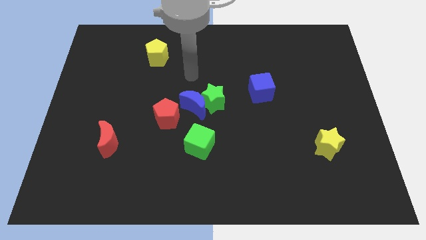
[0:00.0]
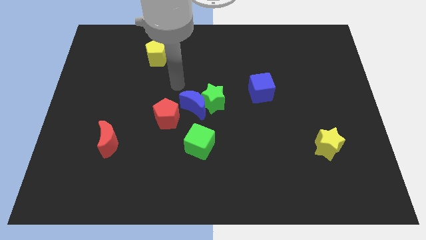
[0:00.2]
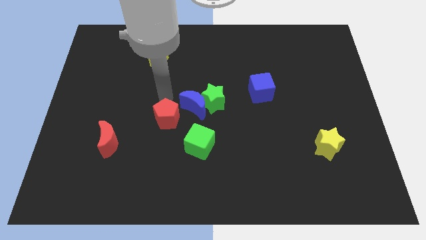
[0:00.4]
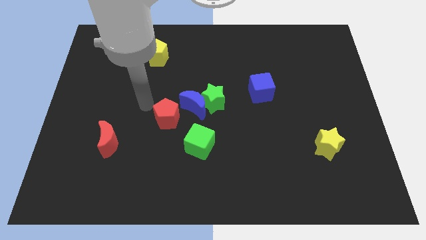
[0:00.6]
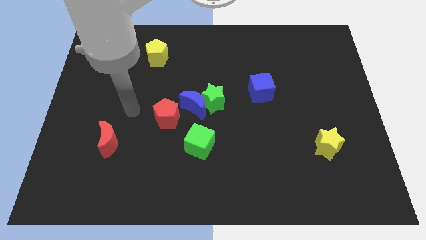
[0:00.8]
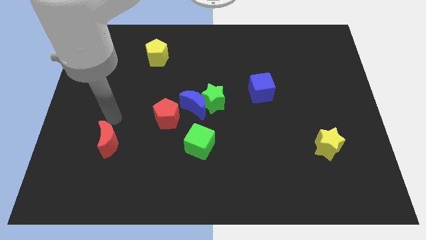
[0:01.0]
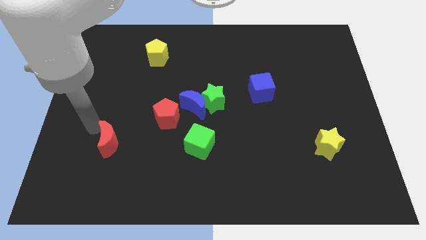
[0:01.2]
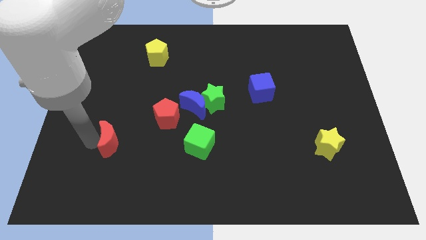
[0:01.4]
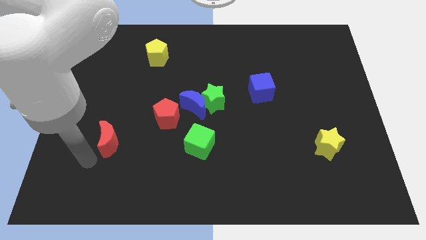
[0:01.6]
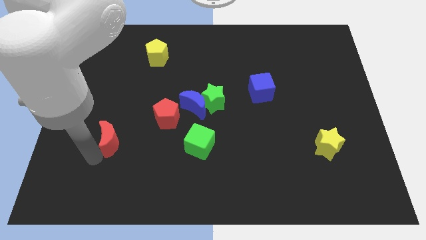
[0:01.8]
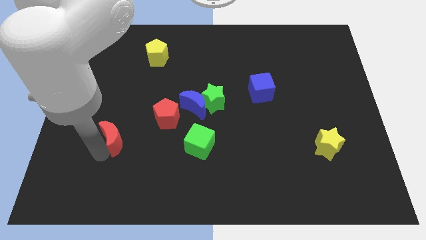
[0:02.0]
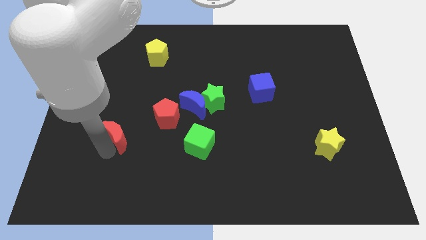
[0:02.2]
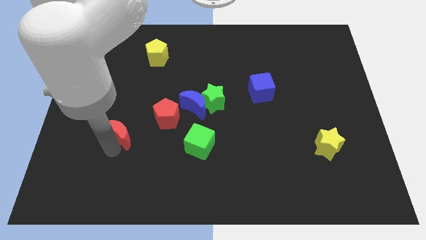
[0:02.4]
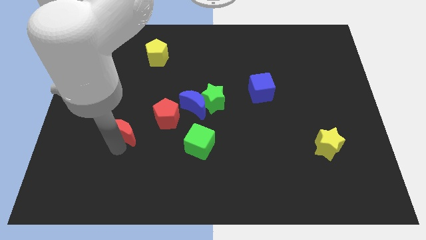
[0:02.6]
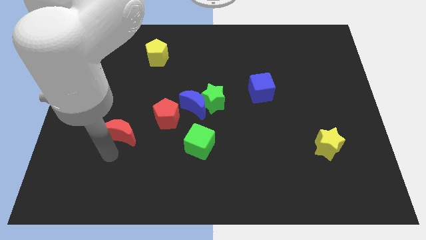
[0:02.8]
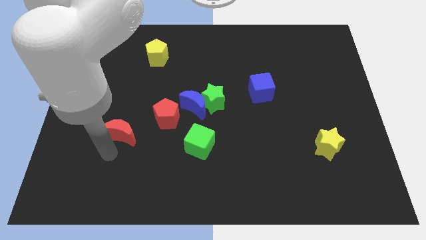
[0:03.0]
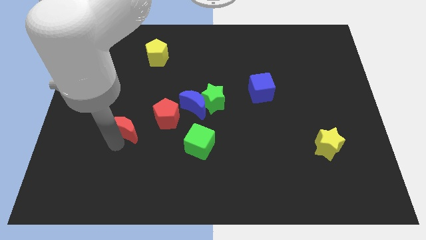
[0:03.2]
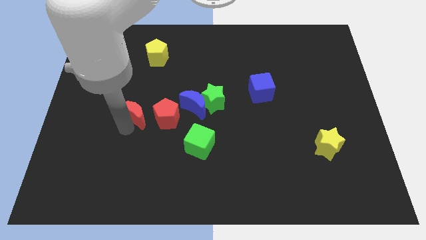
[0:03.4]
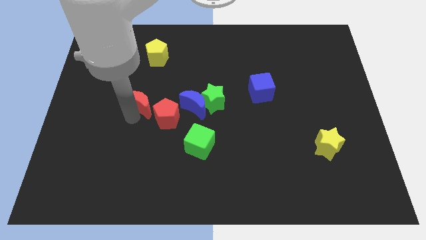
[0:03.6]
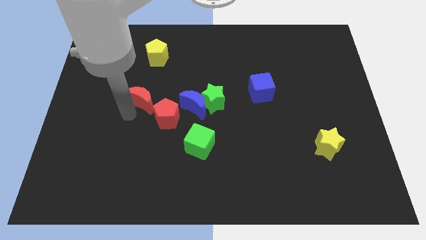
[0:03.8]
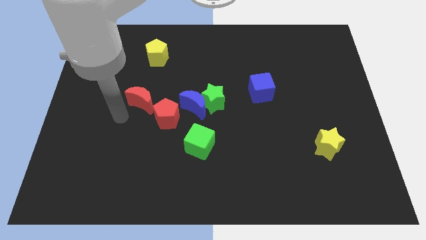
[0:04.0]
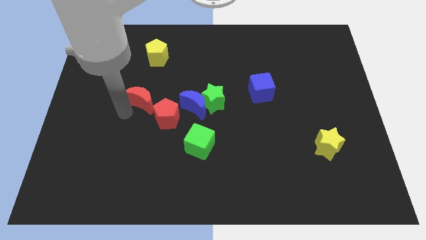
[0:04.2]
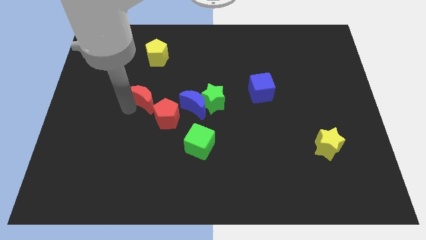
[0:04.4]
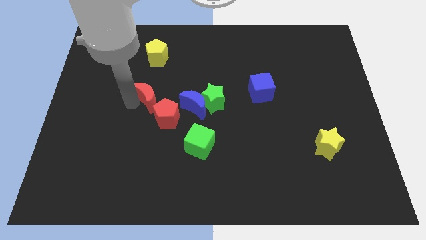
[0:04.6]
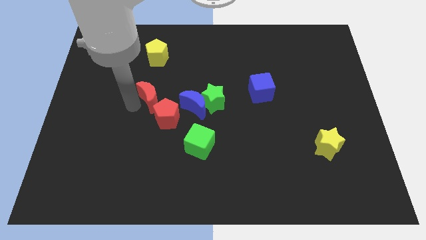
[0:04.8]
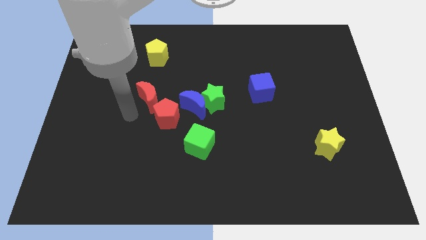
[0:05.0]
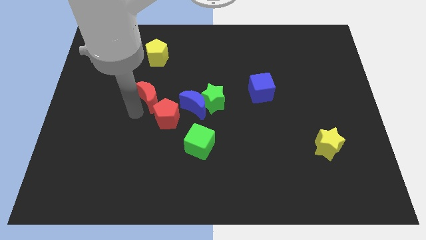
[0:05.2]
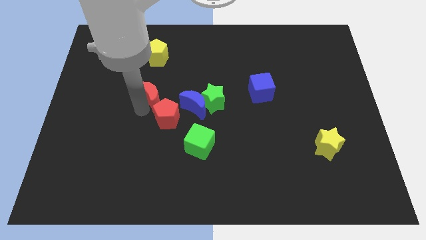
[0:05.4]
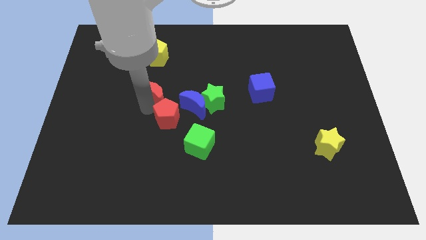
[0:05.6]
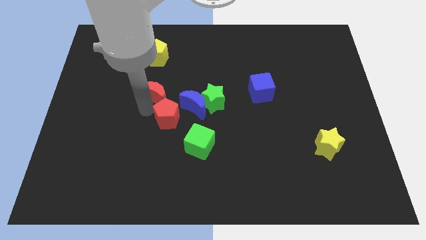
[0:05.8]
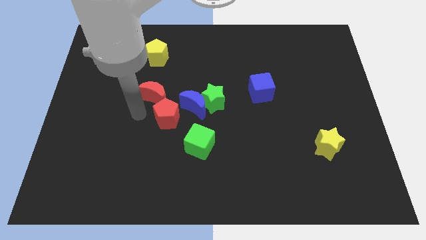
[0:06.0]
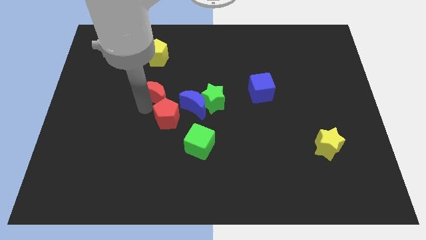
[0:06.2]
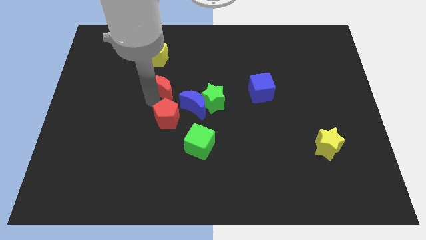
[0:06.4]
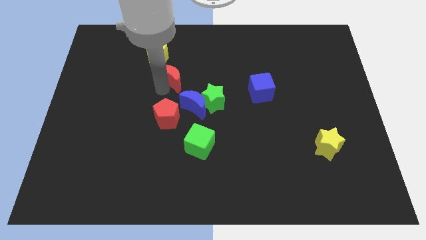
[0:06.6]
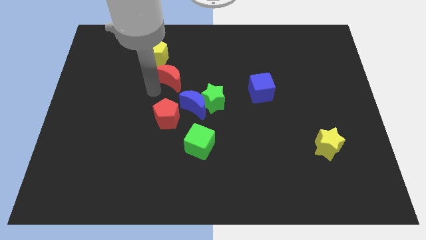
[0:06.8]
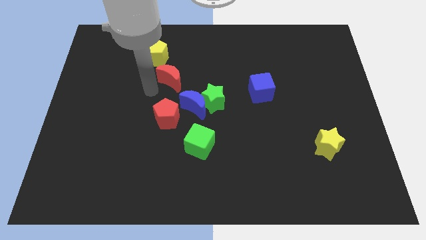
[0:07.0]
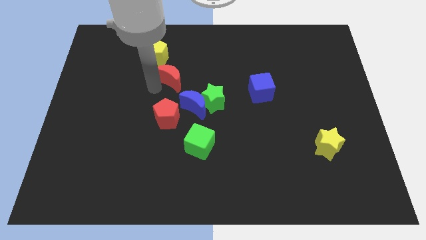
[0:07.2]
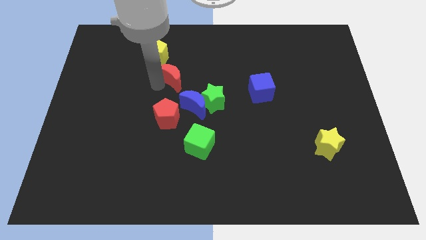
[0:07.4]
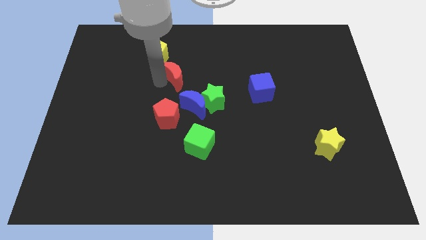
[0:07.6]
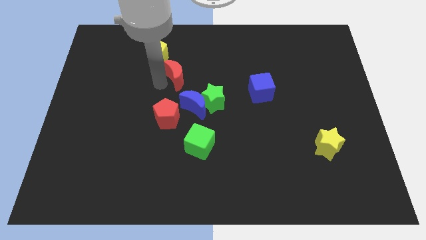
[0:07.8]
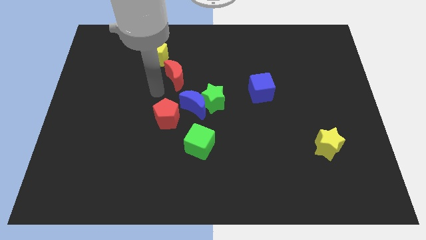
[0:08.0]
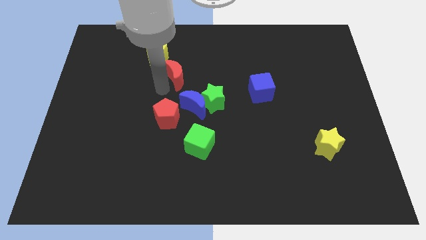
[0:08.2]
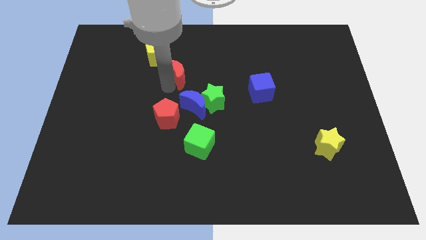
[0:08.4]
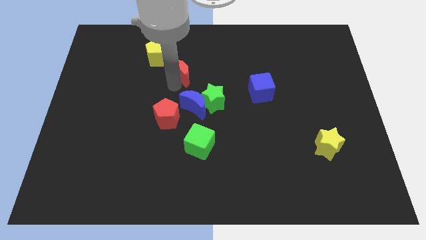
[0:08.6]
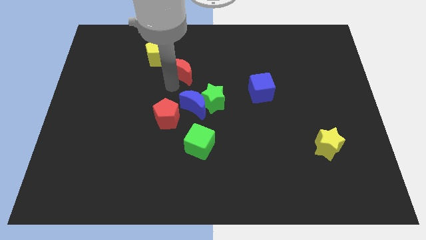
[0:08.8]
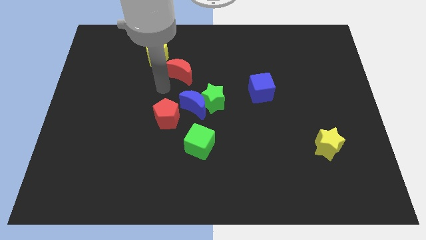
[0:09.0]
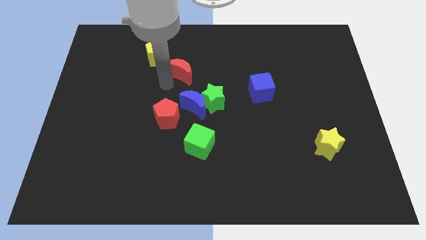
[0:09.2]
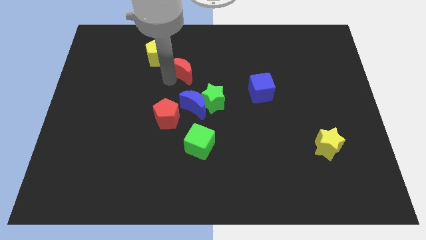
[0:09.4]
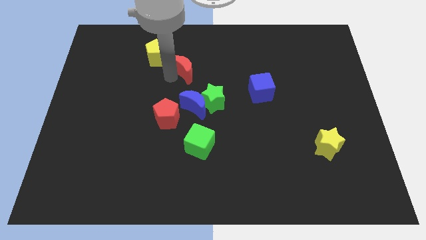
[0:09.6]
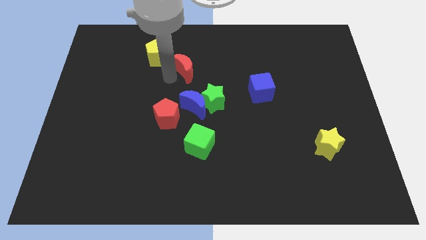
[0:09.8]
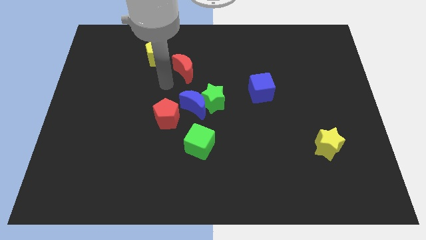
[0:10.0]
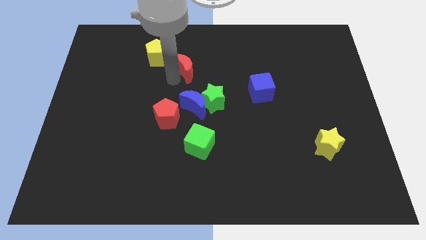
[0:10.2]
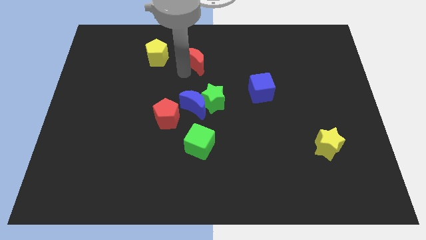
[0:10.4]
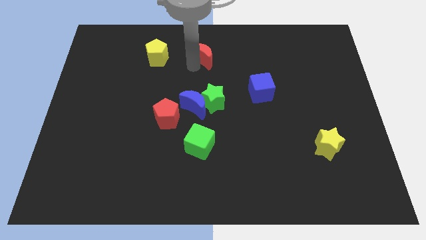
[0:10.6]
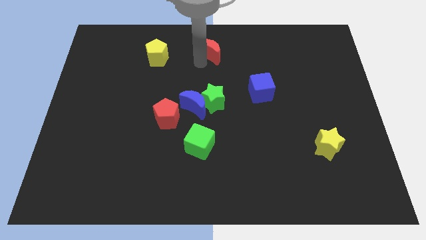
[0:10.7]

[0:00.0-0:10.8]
slide the red moon to the top side

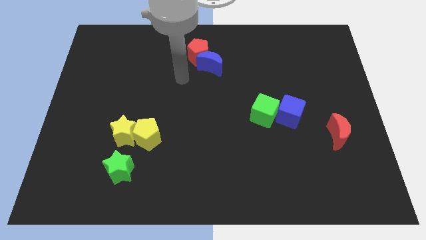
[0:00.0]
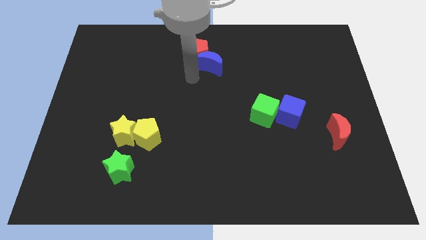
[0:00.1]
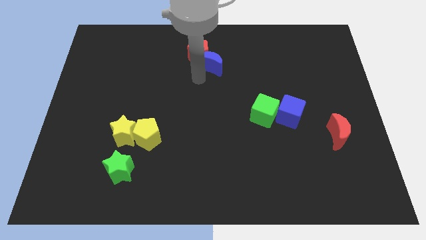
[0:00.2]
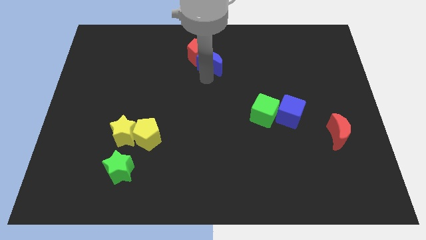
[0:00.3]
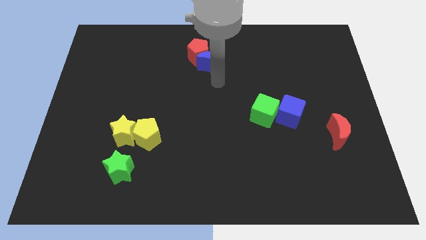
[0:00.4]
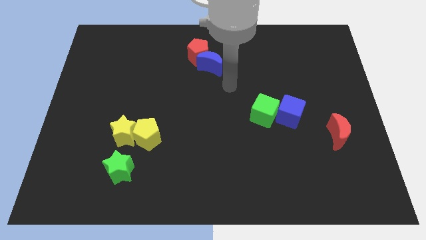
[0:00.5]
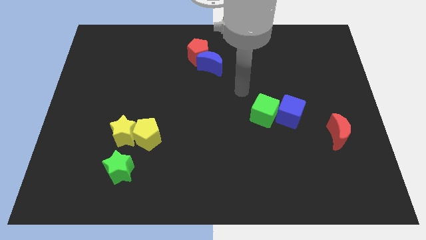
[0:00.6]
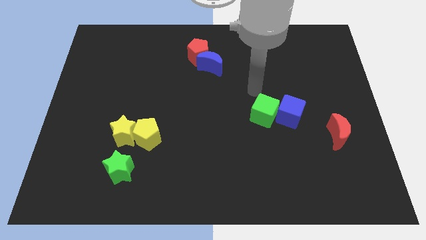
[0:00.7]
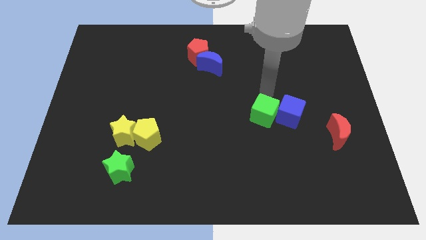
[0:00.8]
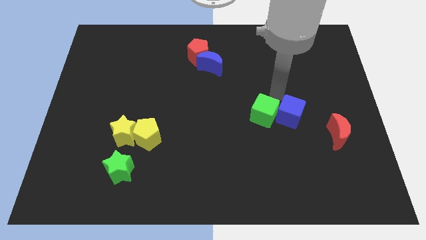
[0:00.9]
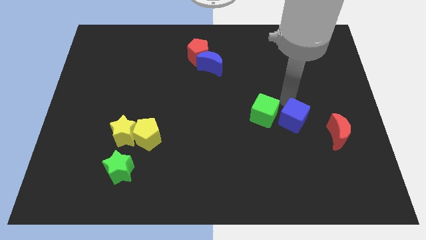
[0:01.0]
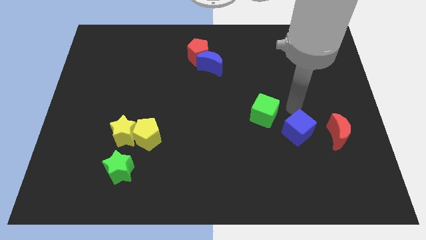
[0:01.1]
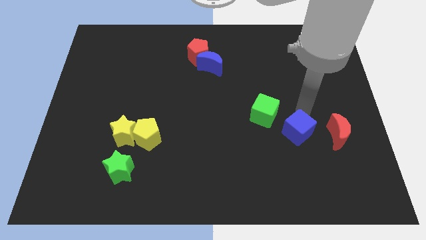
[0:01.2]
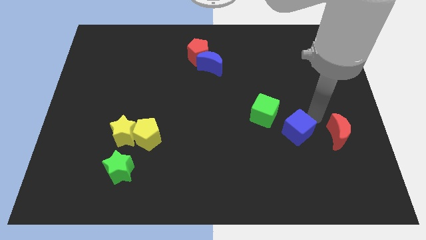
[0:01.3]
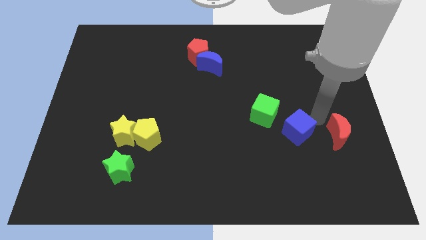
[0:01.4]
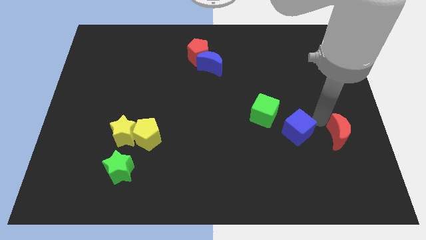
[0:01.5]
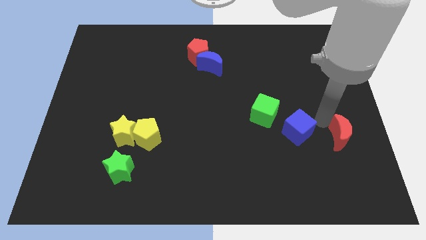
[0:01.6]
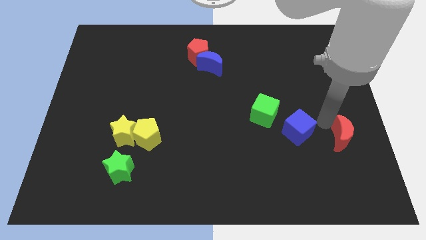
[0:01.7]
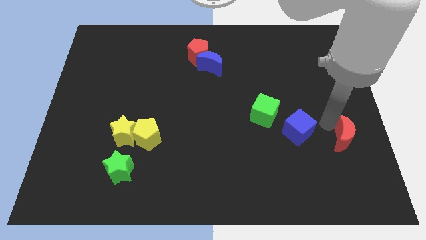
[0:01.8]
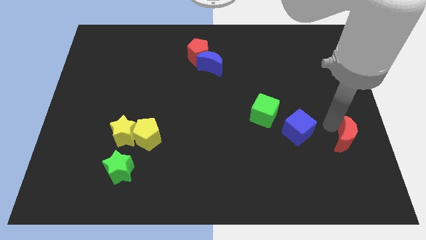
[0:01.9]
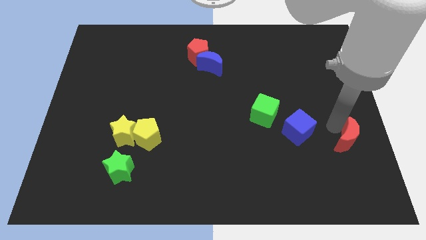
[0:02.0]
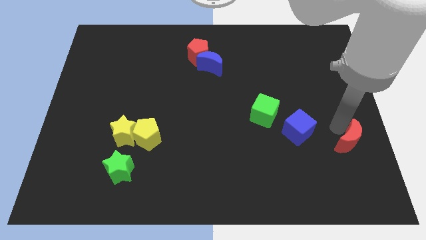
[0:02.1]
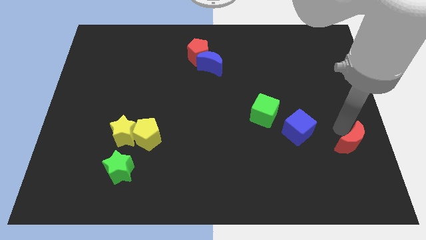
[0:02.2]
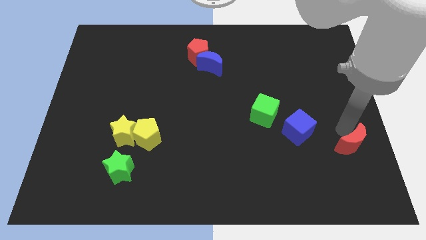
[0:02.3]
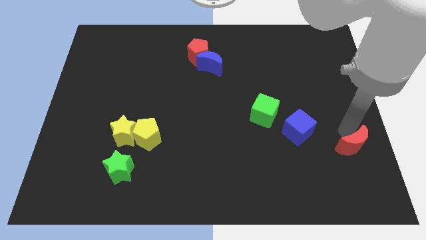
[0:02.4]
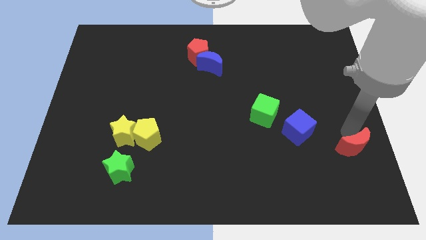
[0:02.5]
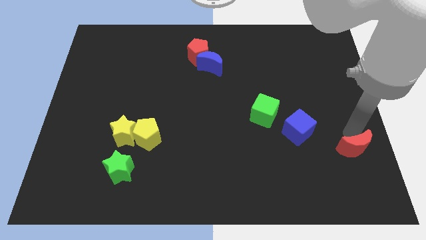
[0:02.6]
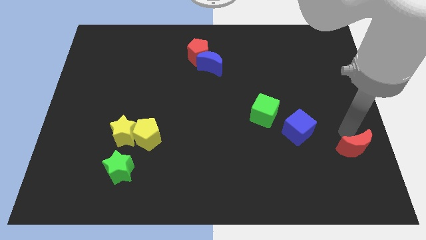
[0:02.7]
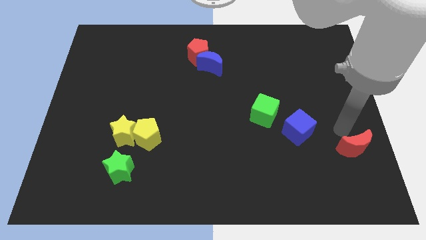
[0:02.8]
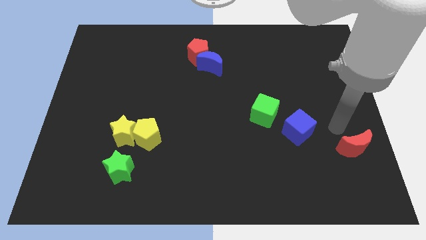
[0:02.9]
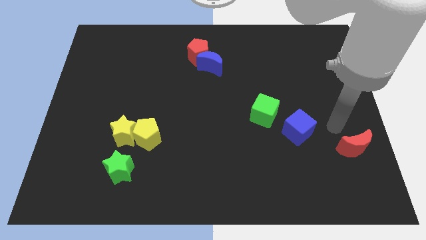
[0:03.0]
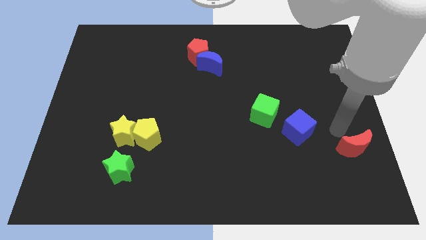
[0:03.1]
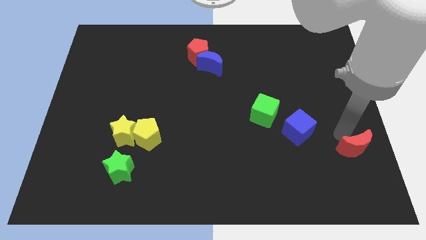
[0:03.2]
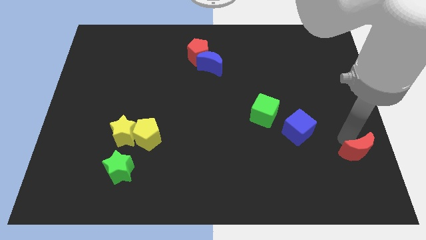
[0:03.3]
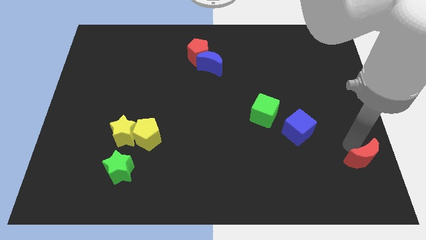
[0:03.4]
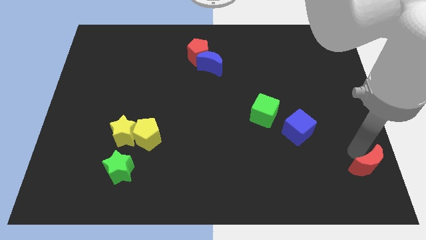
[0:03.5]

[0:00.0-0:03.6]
push the red moon to the bottom right of the board
